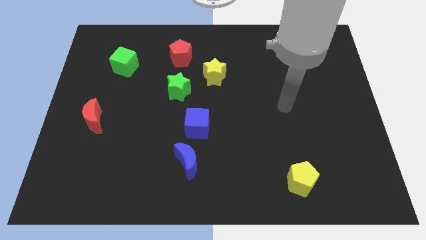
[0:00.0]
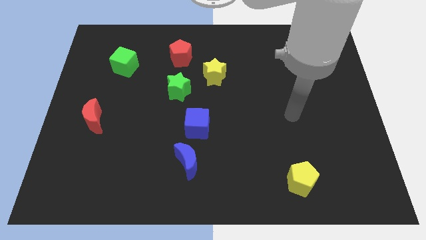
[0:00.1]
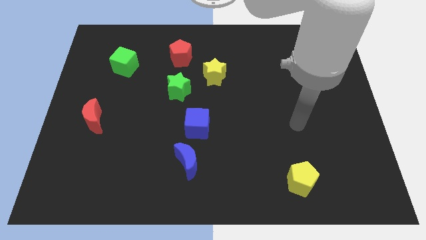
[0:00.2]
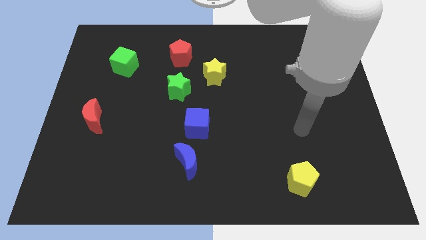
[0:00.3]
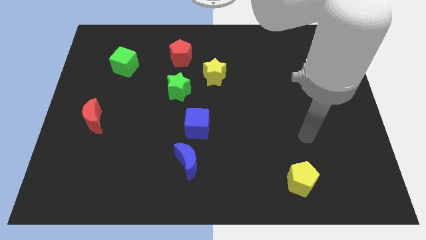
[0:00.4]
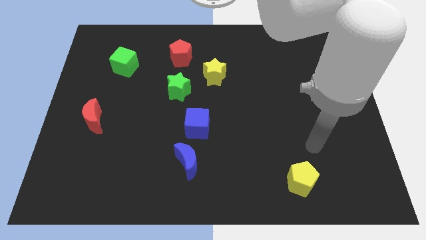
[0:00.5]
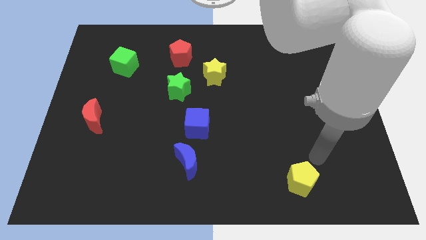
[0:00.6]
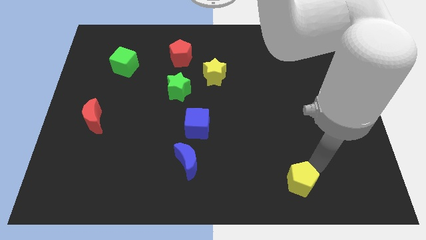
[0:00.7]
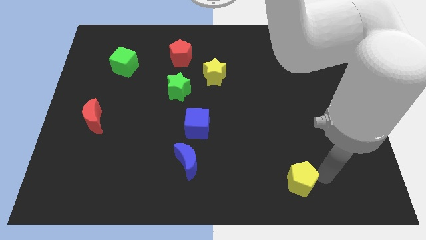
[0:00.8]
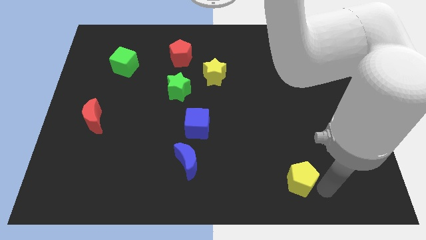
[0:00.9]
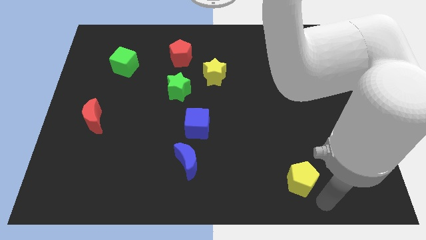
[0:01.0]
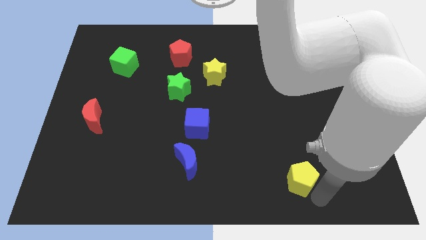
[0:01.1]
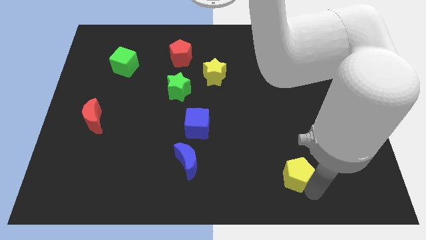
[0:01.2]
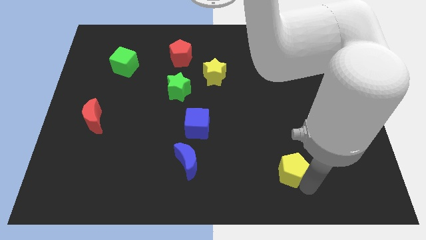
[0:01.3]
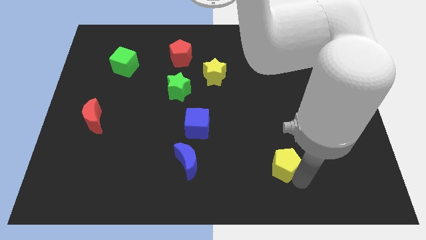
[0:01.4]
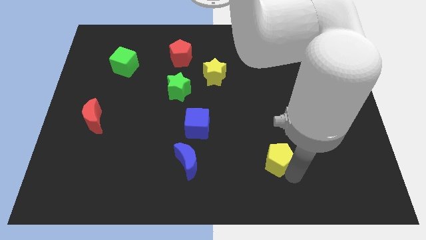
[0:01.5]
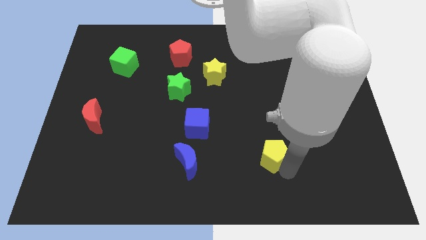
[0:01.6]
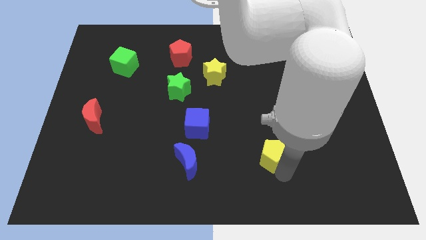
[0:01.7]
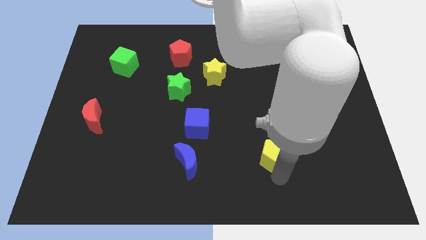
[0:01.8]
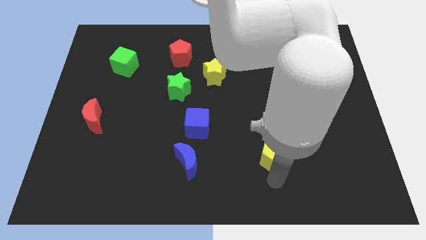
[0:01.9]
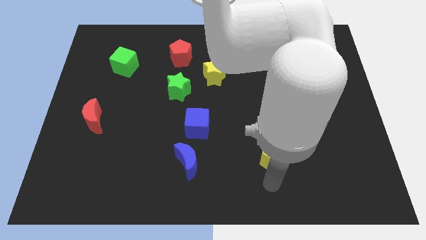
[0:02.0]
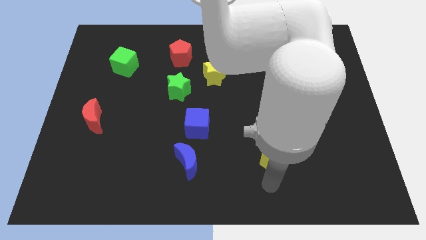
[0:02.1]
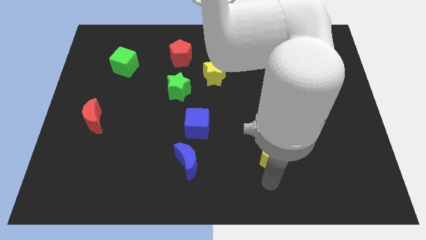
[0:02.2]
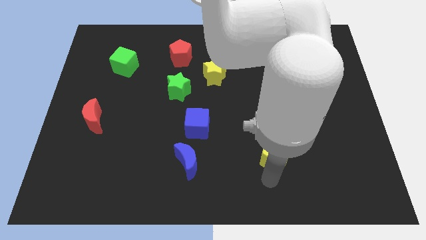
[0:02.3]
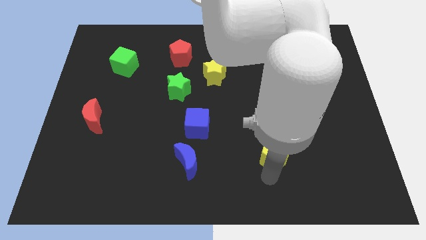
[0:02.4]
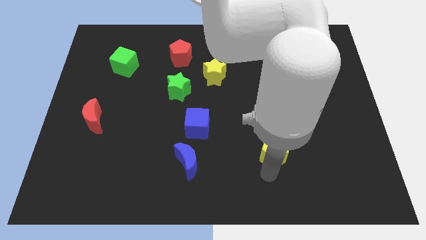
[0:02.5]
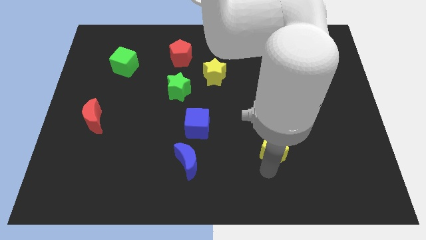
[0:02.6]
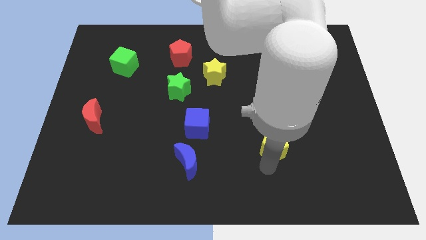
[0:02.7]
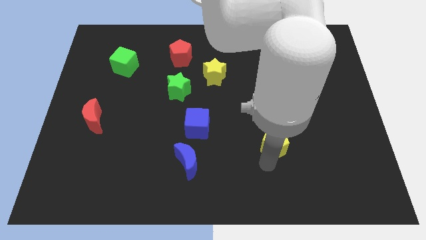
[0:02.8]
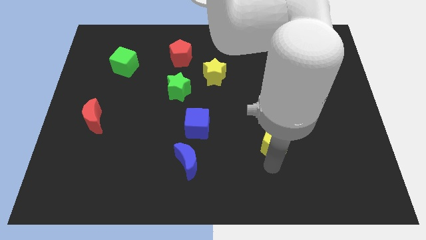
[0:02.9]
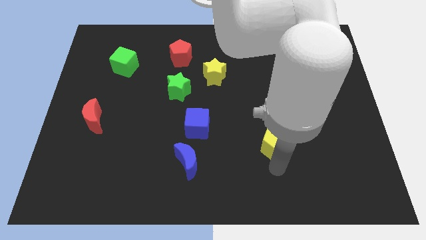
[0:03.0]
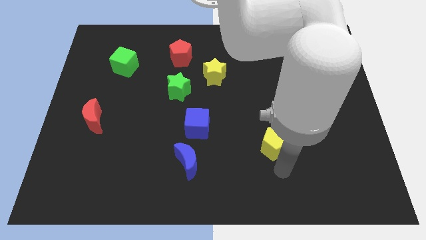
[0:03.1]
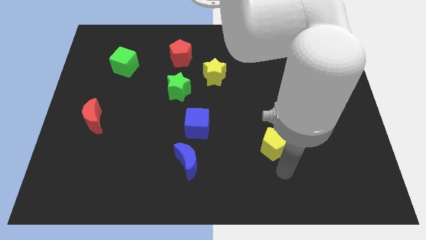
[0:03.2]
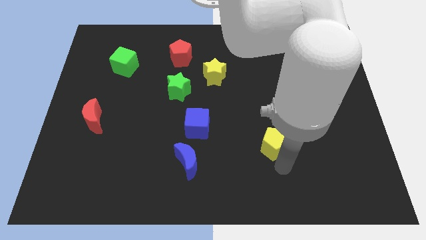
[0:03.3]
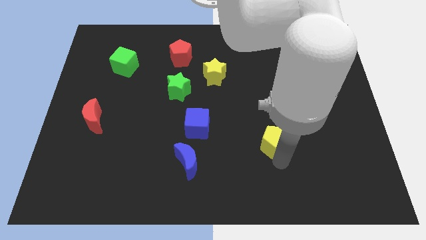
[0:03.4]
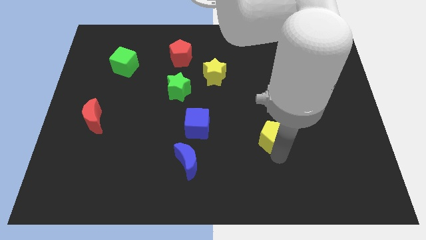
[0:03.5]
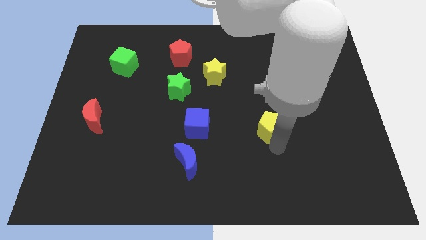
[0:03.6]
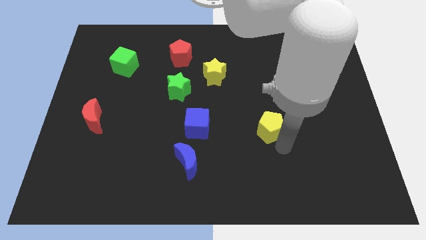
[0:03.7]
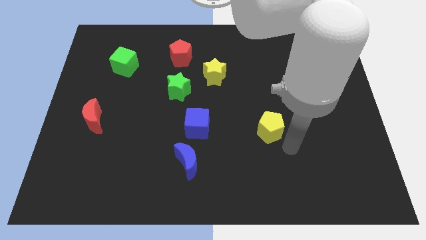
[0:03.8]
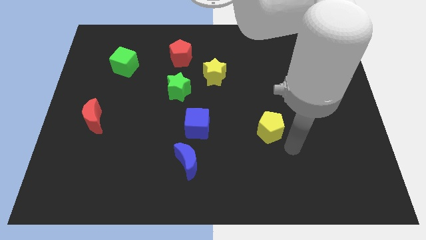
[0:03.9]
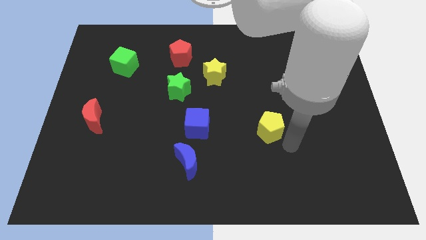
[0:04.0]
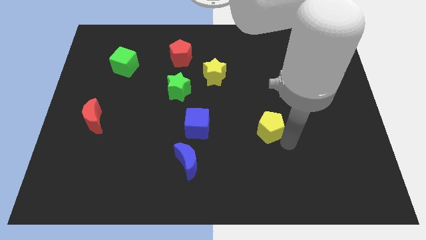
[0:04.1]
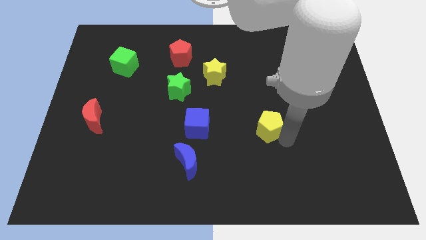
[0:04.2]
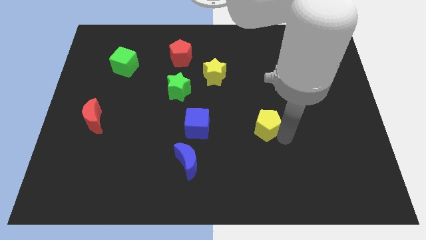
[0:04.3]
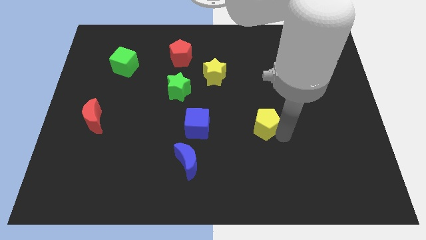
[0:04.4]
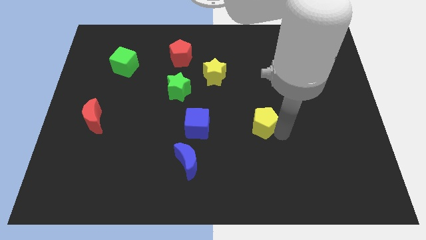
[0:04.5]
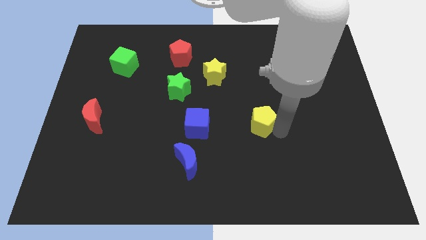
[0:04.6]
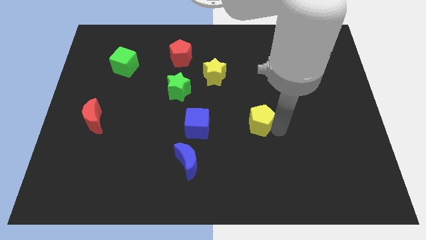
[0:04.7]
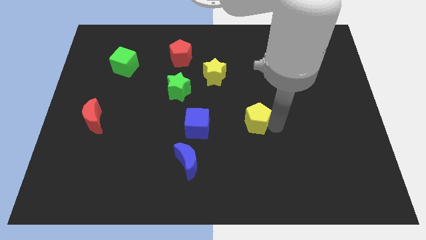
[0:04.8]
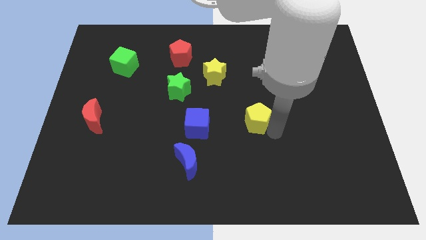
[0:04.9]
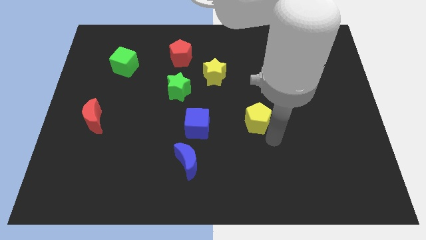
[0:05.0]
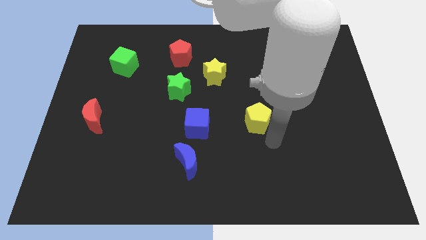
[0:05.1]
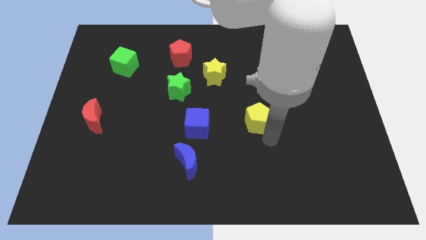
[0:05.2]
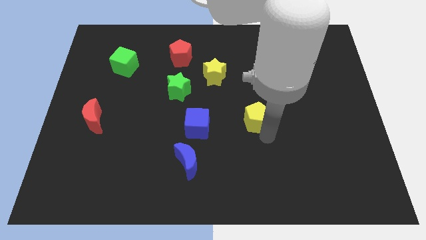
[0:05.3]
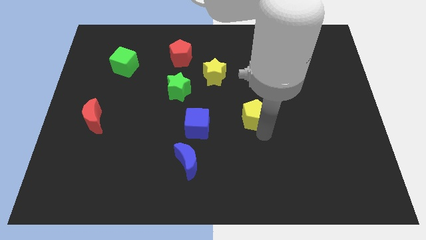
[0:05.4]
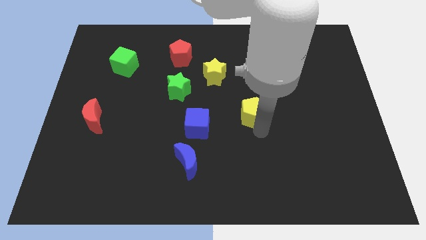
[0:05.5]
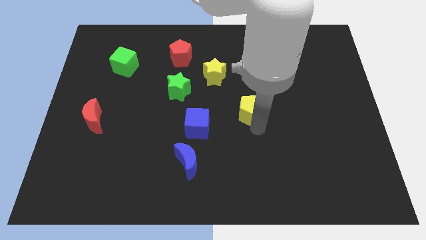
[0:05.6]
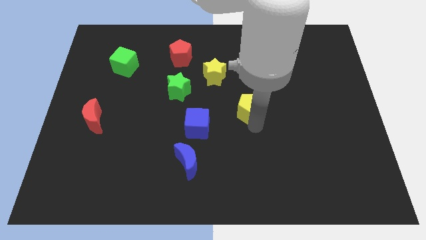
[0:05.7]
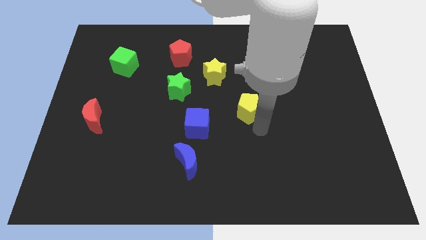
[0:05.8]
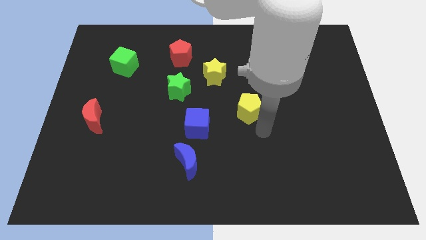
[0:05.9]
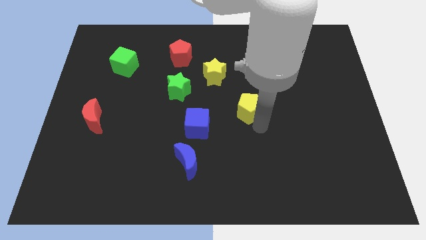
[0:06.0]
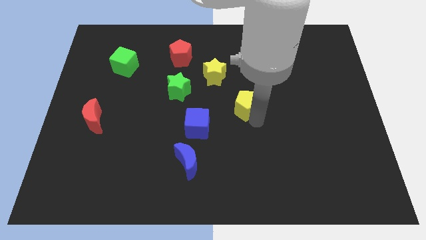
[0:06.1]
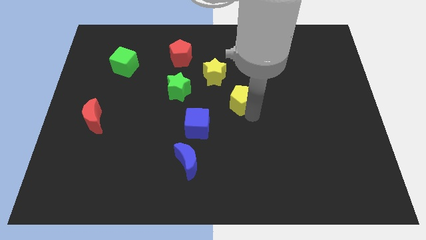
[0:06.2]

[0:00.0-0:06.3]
push the yellow pentagon to the bottom right of the yellow star

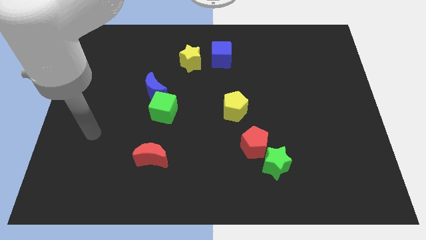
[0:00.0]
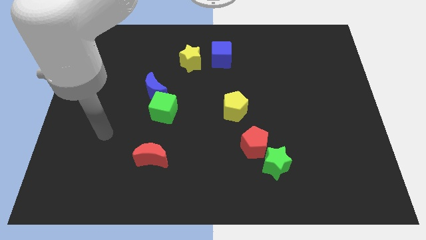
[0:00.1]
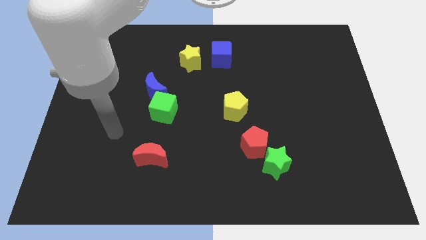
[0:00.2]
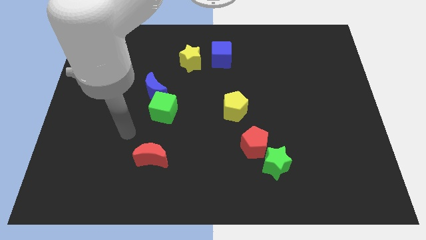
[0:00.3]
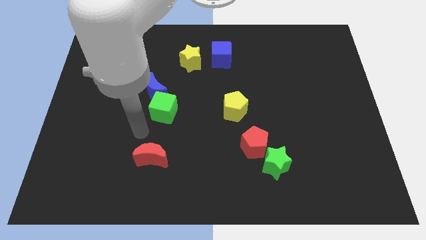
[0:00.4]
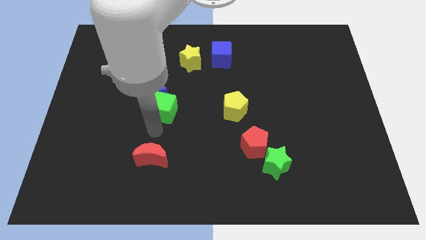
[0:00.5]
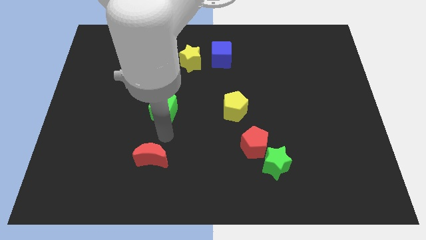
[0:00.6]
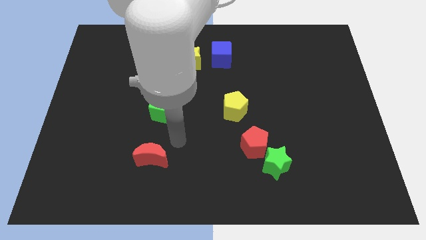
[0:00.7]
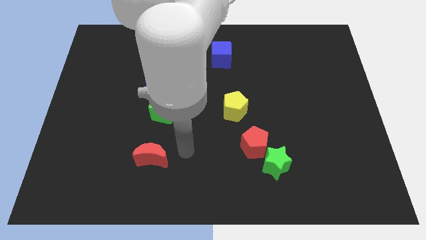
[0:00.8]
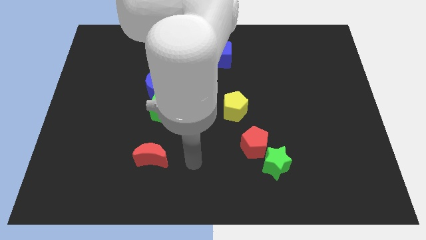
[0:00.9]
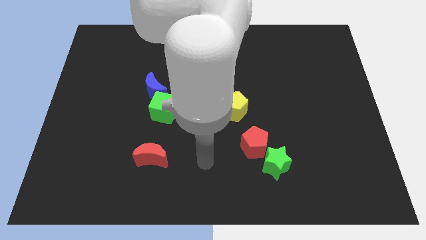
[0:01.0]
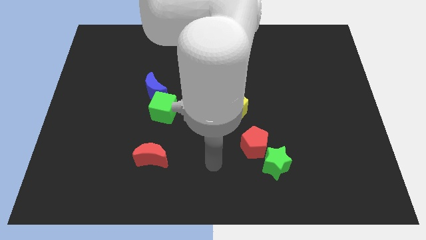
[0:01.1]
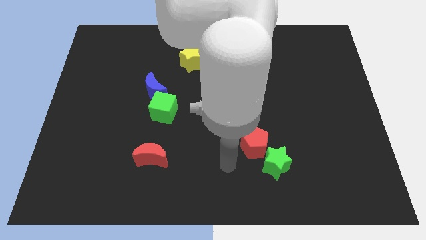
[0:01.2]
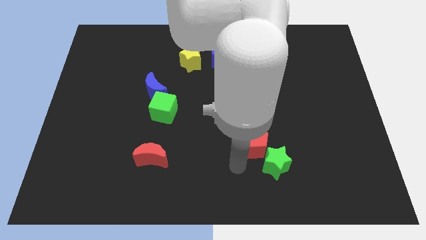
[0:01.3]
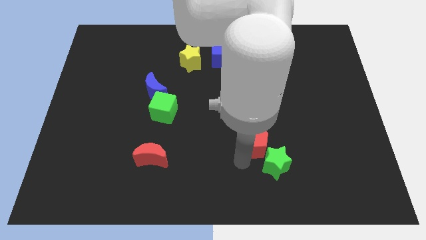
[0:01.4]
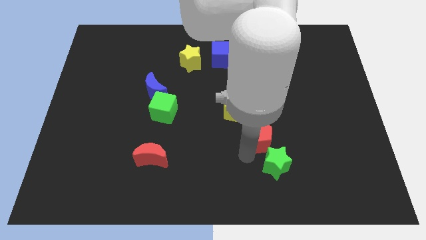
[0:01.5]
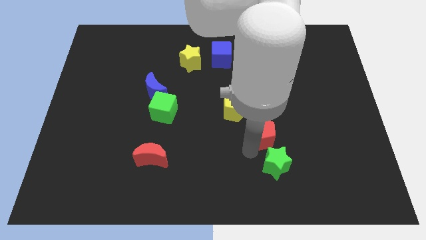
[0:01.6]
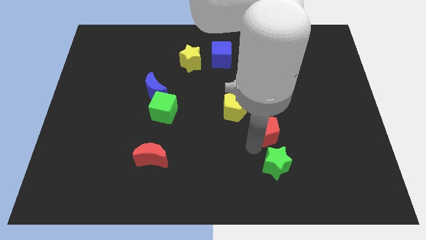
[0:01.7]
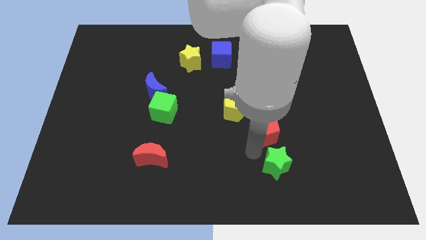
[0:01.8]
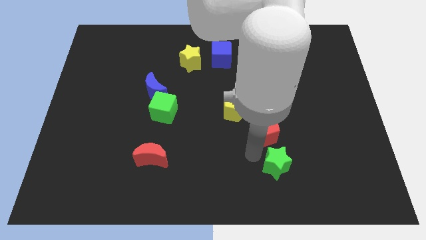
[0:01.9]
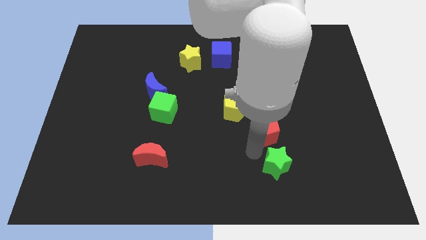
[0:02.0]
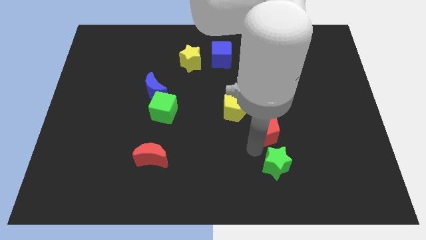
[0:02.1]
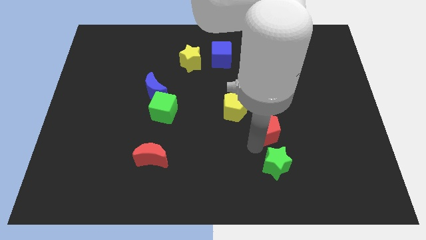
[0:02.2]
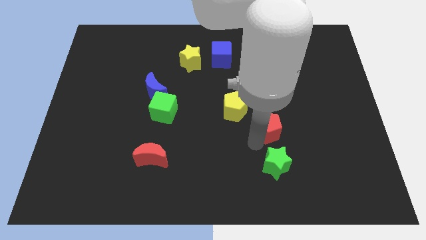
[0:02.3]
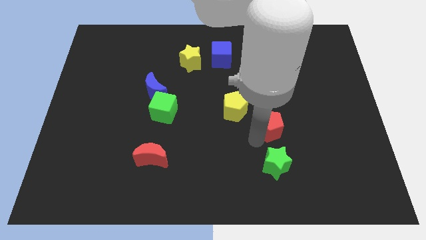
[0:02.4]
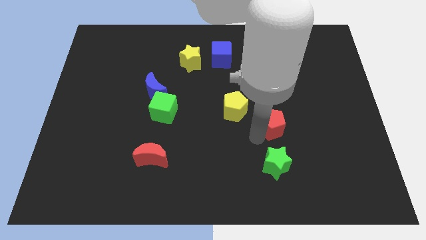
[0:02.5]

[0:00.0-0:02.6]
move the red pentagon to the right side of the yellow pentagon
